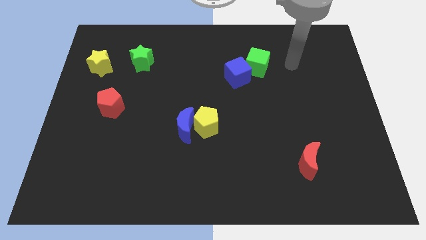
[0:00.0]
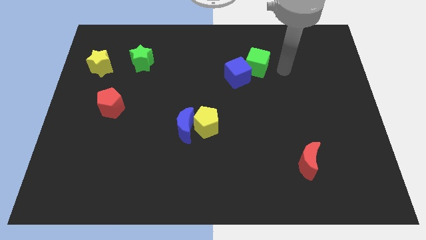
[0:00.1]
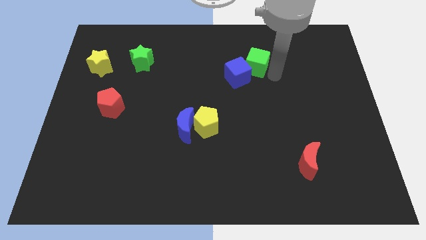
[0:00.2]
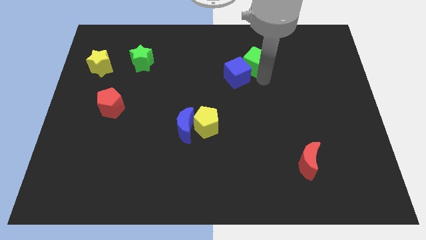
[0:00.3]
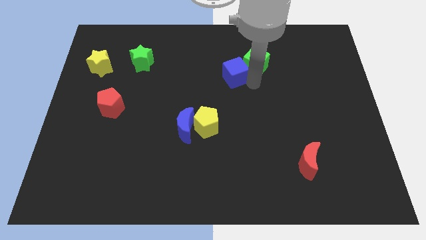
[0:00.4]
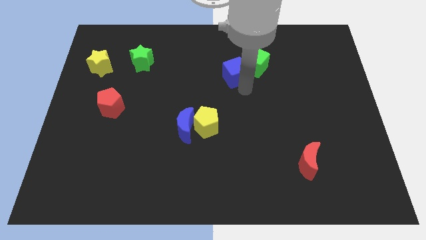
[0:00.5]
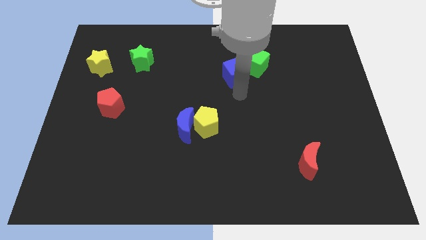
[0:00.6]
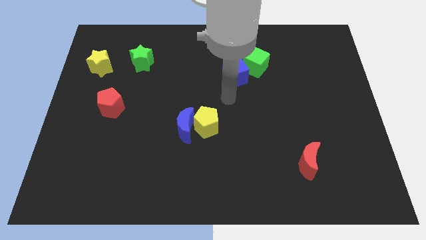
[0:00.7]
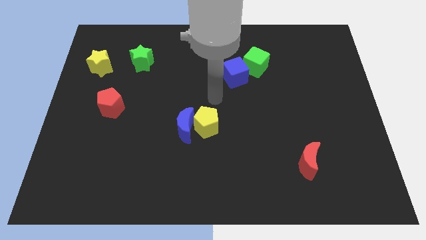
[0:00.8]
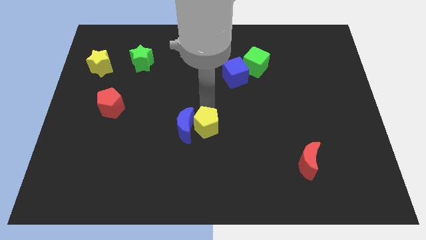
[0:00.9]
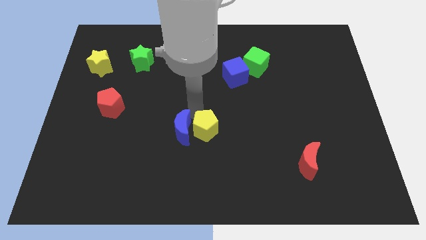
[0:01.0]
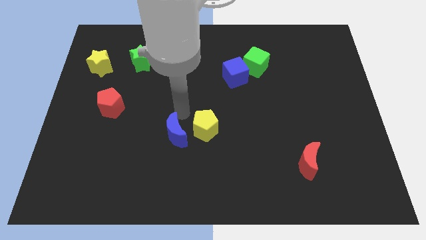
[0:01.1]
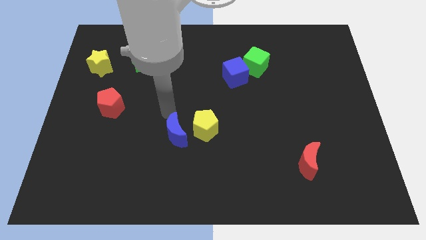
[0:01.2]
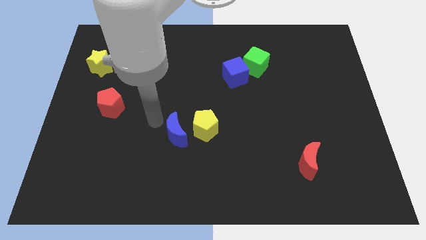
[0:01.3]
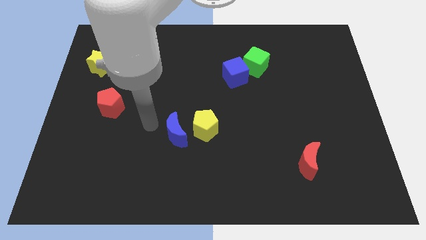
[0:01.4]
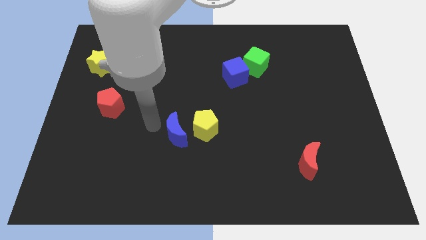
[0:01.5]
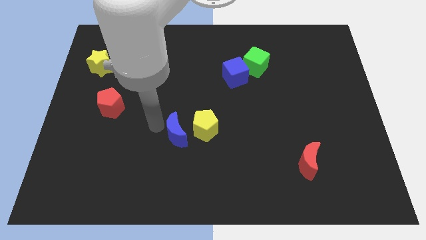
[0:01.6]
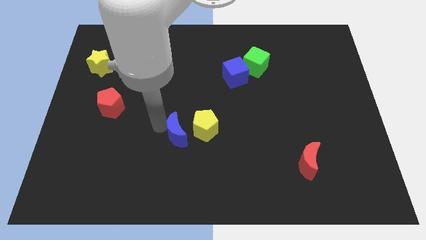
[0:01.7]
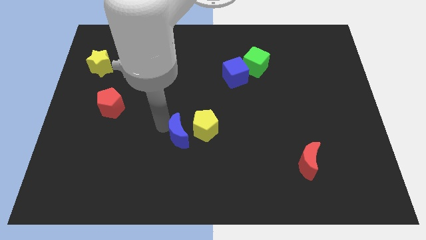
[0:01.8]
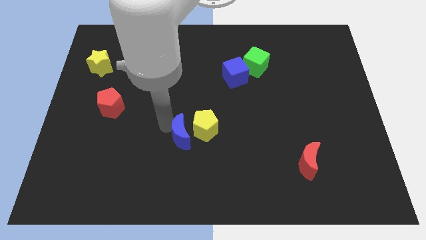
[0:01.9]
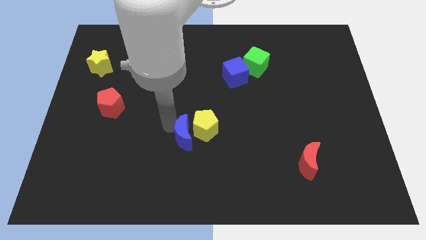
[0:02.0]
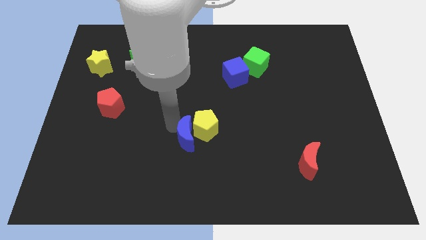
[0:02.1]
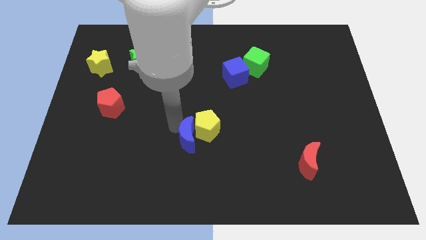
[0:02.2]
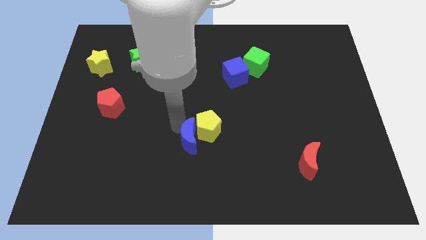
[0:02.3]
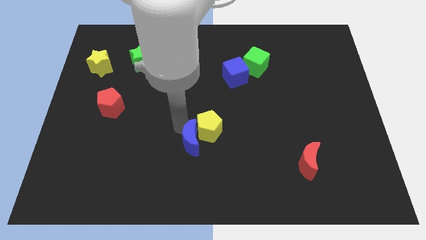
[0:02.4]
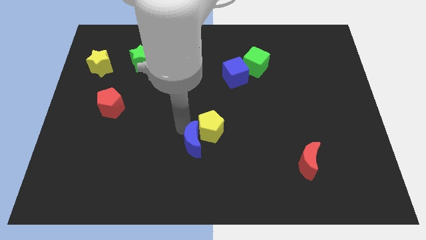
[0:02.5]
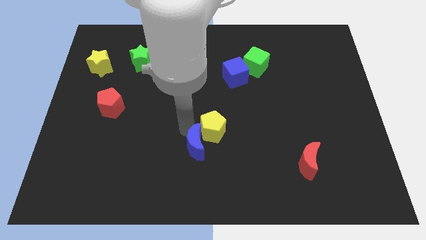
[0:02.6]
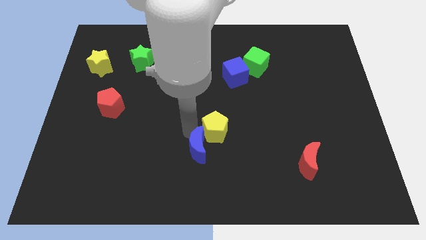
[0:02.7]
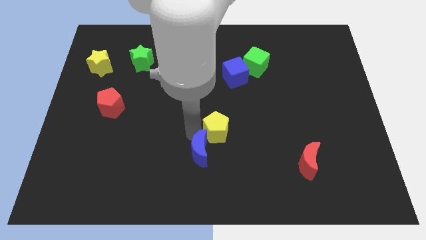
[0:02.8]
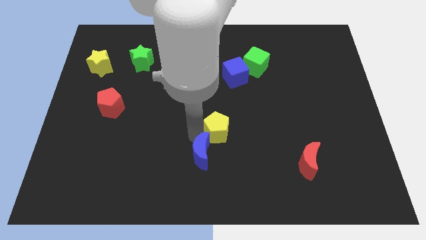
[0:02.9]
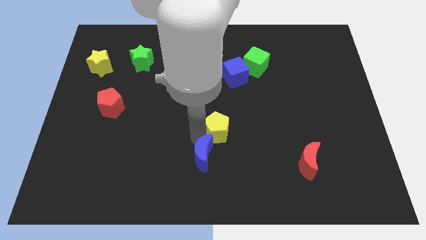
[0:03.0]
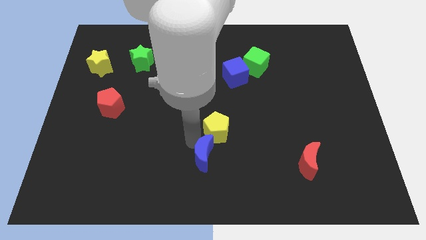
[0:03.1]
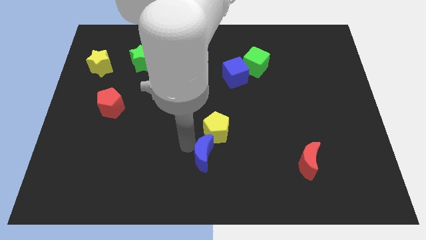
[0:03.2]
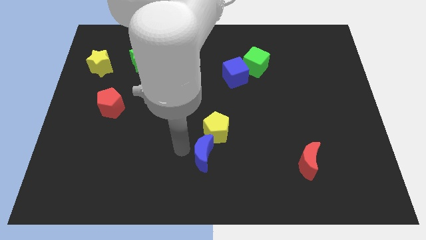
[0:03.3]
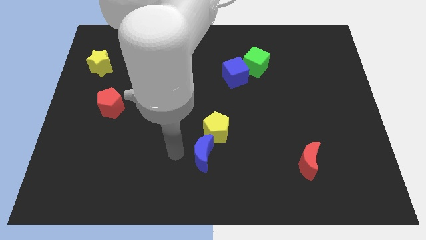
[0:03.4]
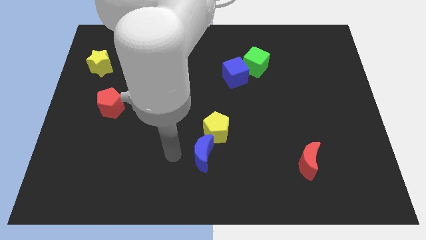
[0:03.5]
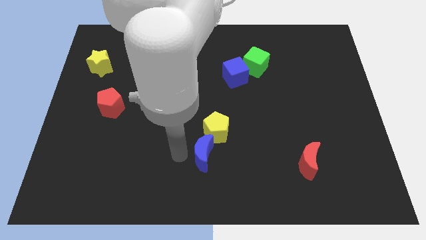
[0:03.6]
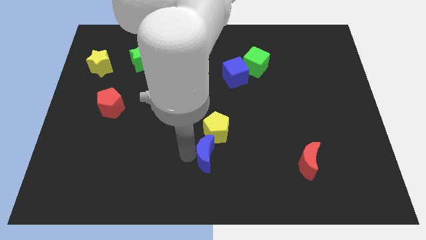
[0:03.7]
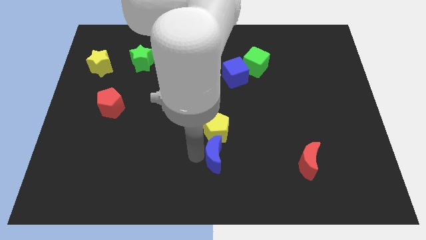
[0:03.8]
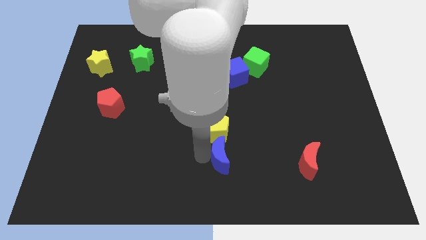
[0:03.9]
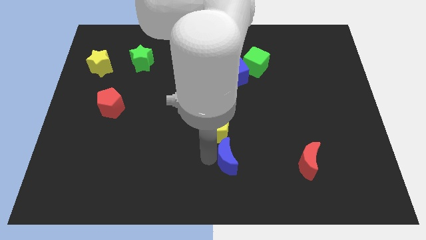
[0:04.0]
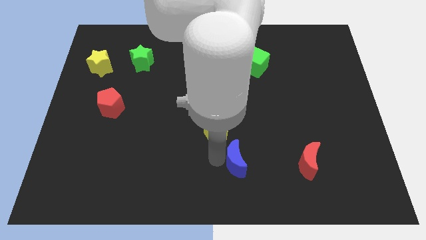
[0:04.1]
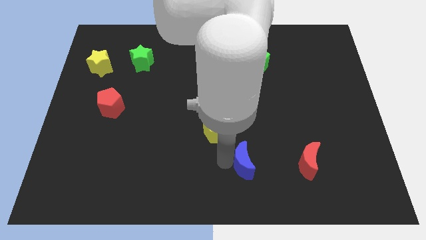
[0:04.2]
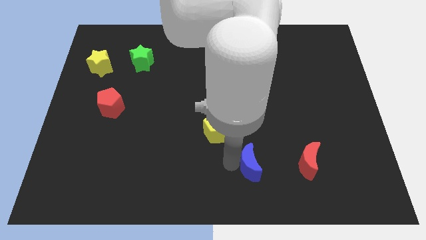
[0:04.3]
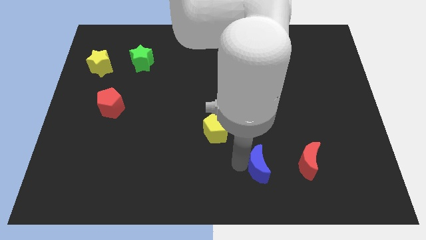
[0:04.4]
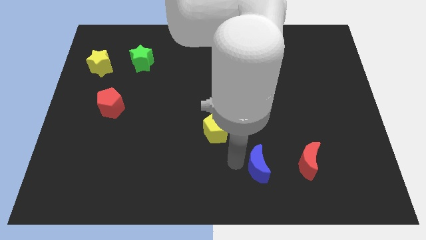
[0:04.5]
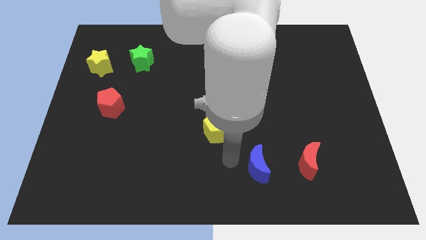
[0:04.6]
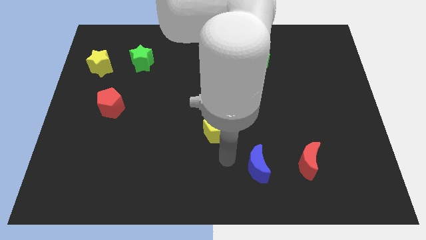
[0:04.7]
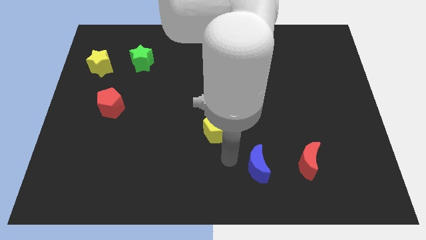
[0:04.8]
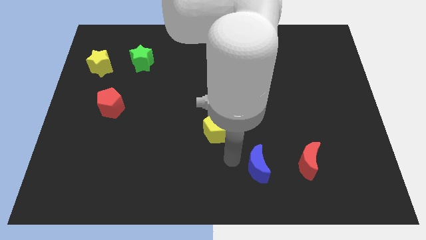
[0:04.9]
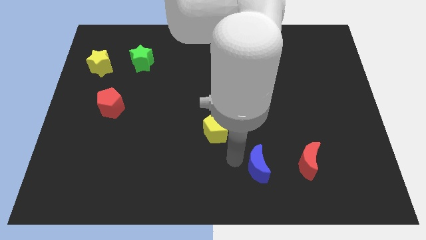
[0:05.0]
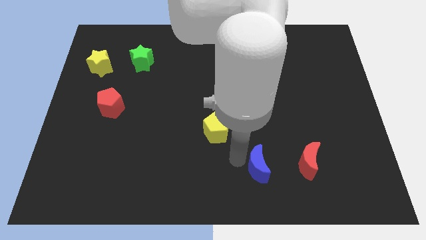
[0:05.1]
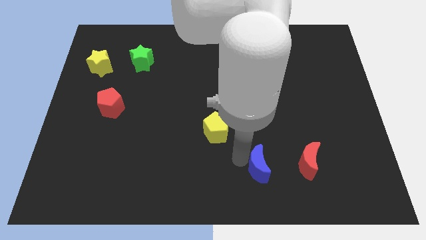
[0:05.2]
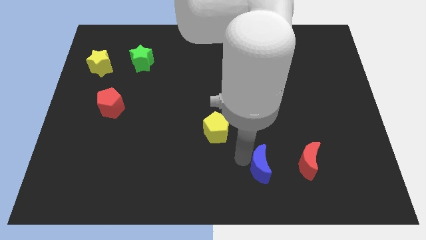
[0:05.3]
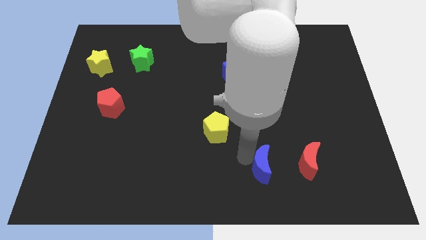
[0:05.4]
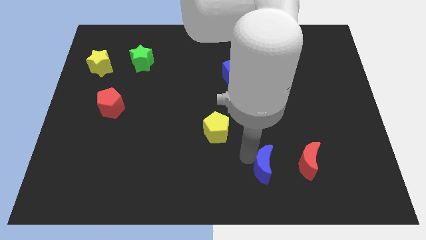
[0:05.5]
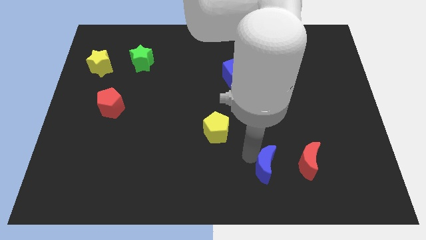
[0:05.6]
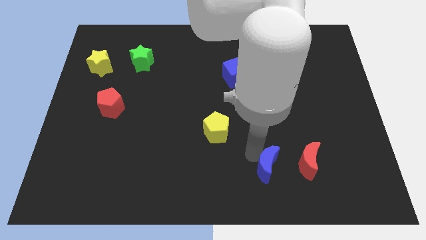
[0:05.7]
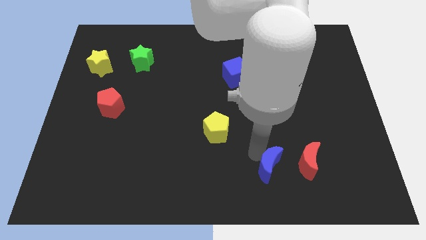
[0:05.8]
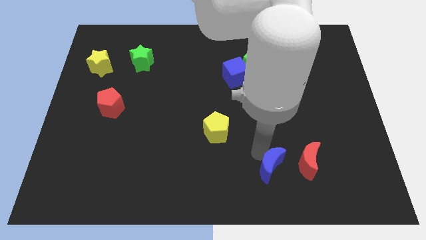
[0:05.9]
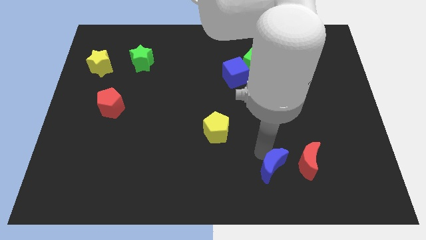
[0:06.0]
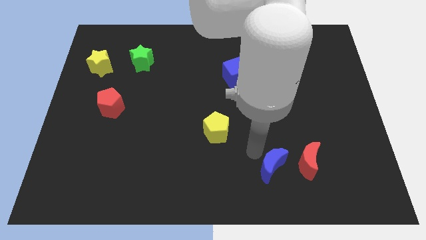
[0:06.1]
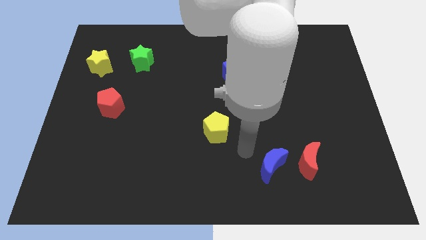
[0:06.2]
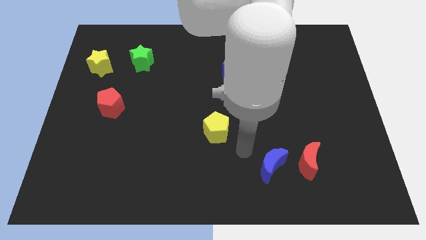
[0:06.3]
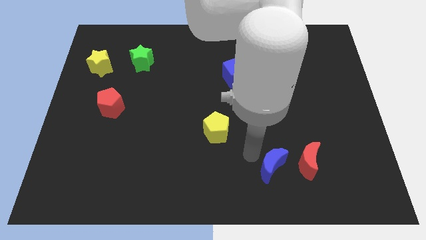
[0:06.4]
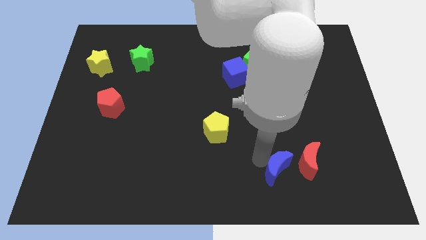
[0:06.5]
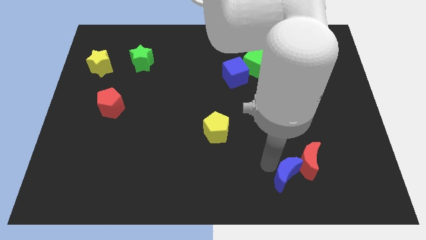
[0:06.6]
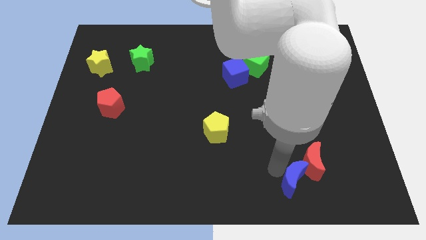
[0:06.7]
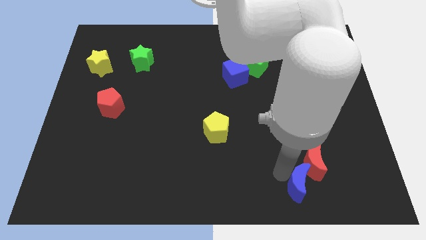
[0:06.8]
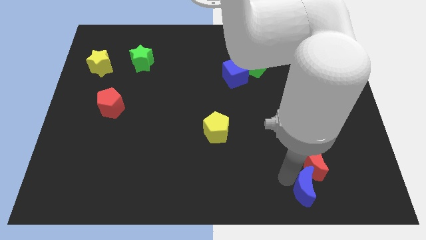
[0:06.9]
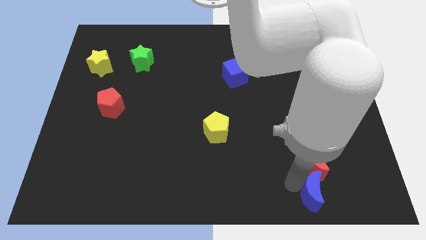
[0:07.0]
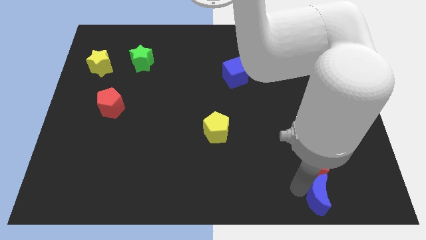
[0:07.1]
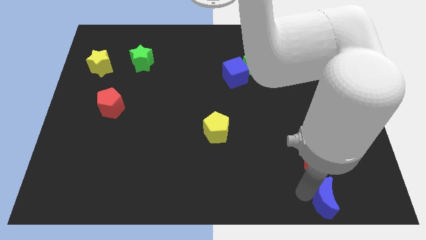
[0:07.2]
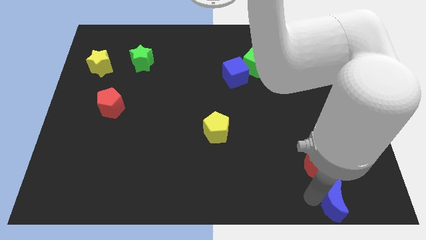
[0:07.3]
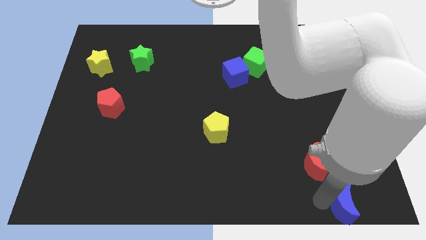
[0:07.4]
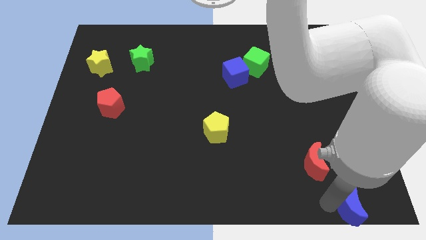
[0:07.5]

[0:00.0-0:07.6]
slide the blue moon to the bottom right corner
